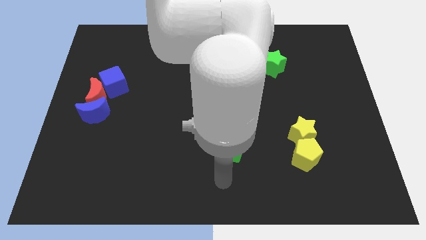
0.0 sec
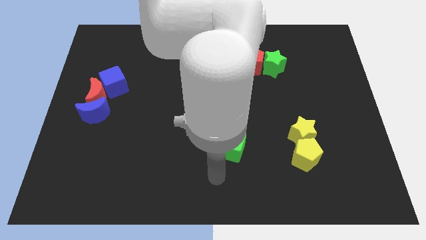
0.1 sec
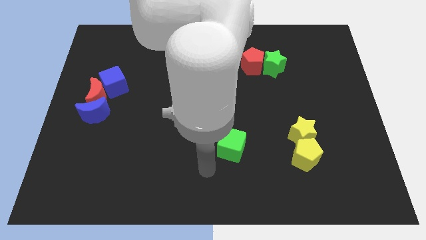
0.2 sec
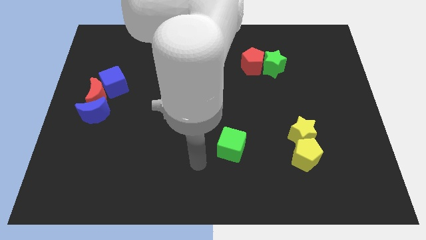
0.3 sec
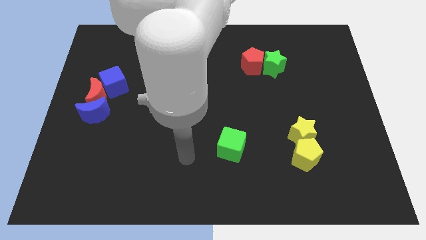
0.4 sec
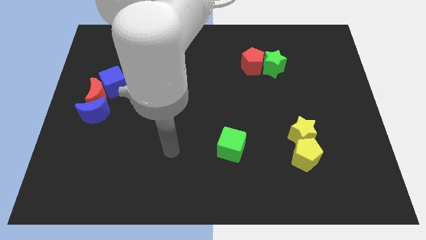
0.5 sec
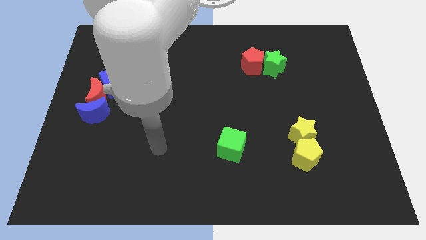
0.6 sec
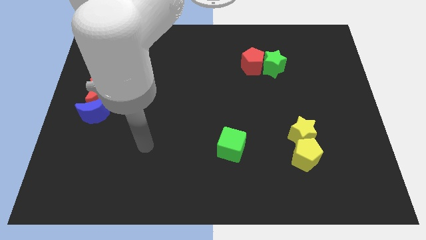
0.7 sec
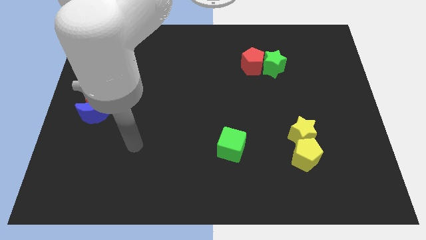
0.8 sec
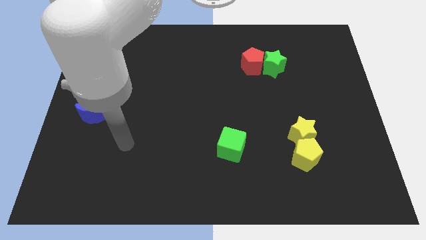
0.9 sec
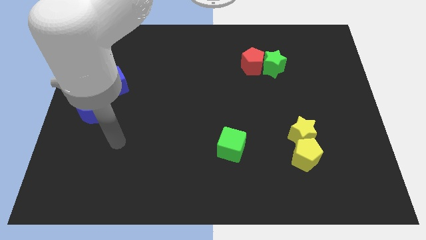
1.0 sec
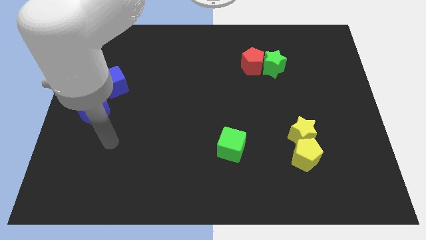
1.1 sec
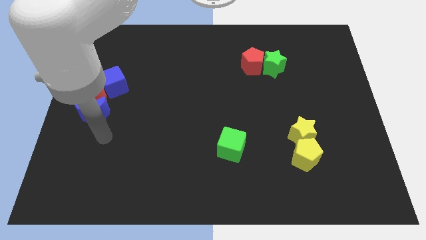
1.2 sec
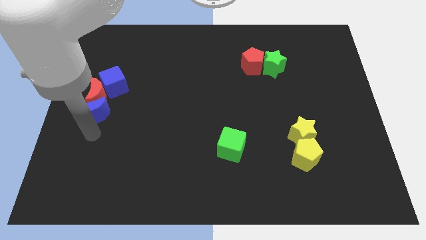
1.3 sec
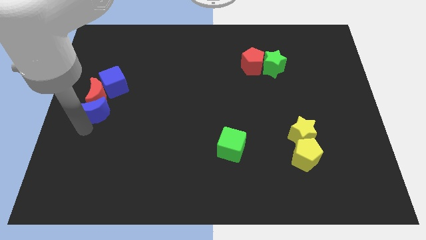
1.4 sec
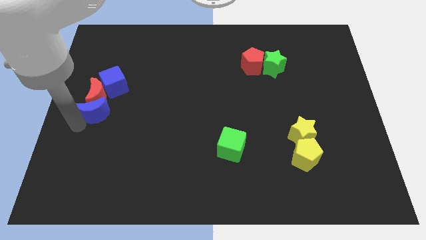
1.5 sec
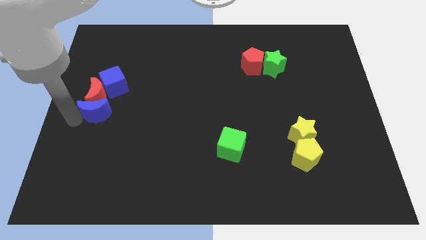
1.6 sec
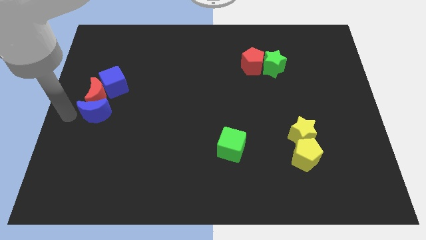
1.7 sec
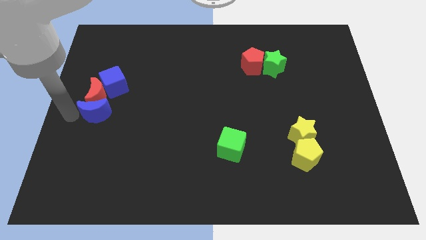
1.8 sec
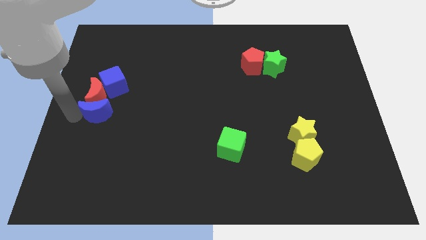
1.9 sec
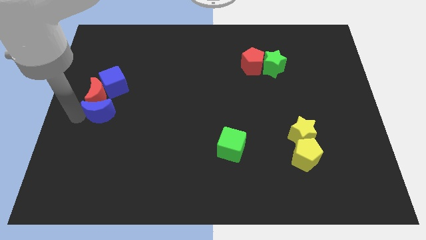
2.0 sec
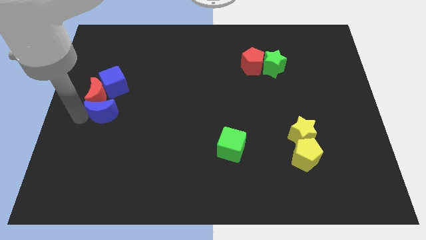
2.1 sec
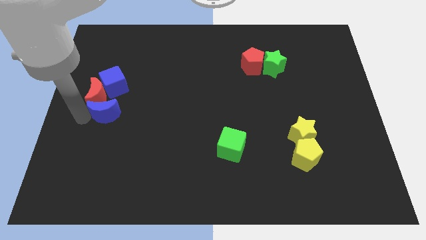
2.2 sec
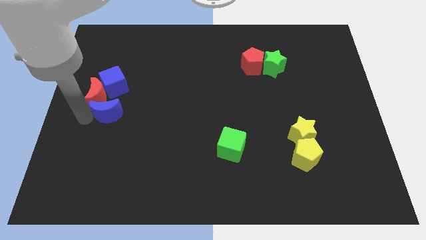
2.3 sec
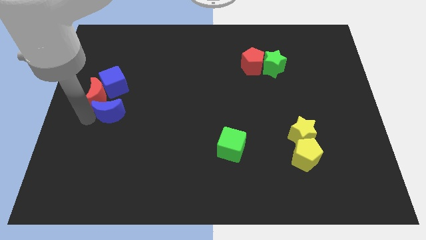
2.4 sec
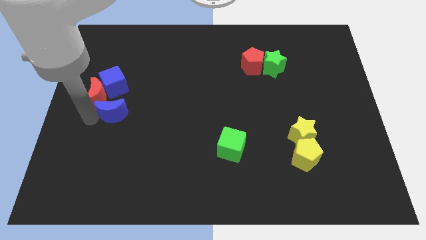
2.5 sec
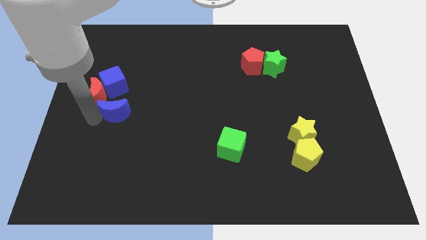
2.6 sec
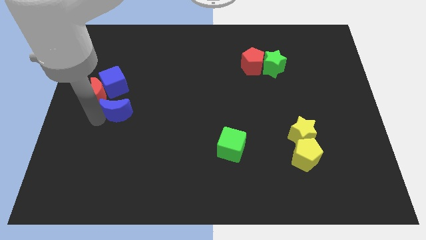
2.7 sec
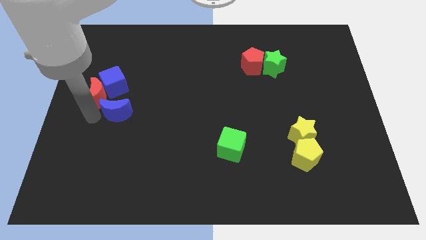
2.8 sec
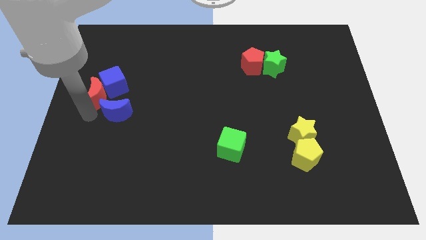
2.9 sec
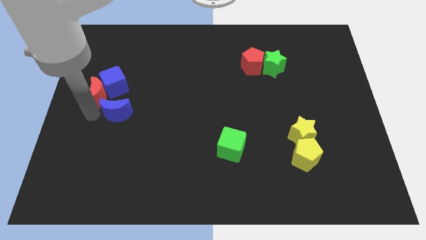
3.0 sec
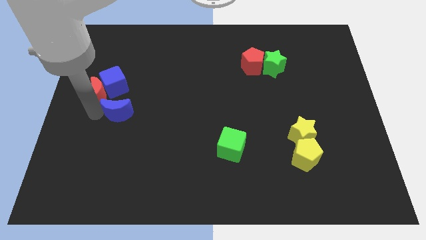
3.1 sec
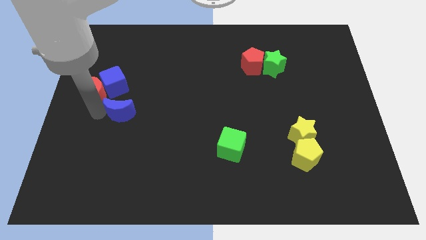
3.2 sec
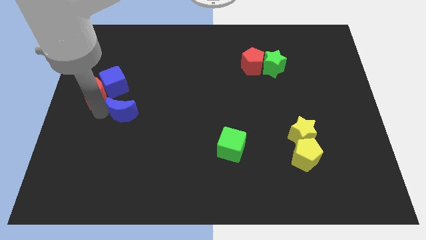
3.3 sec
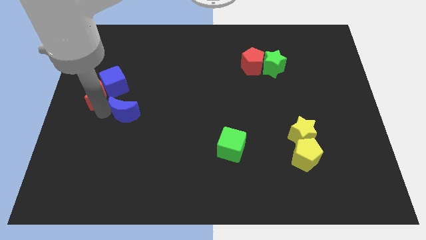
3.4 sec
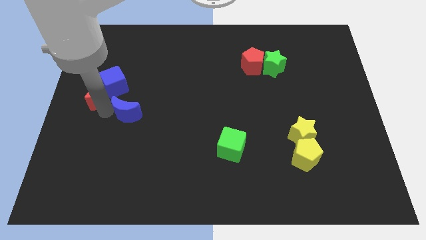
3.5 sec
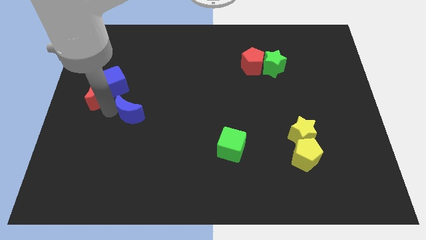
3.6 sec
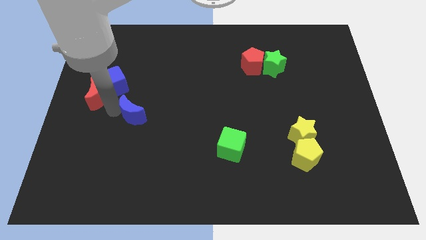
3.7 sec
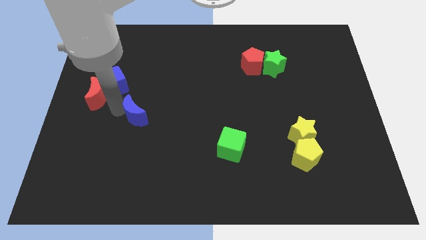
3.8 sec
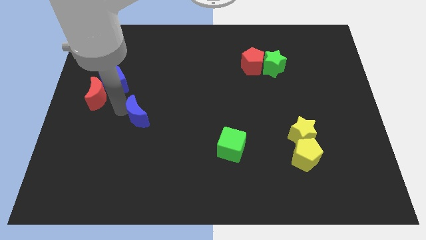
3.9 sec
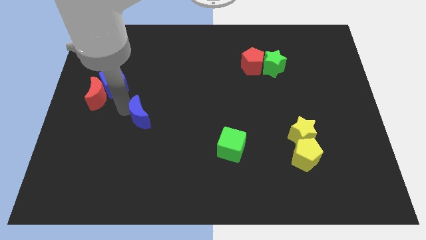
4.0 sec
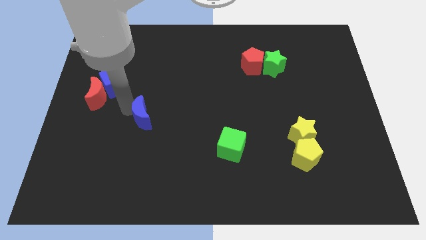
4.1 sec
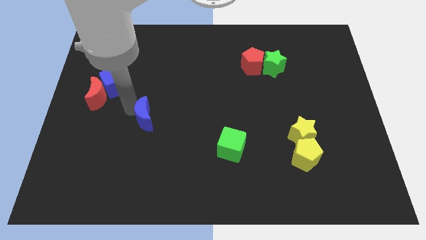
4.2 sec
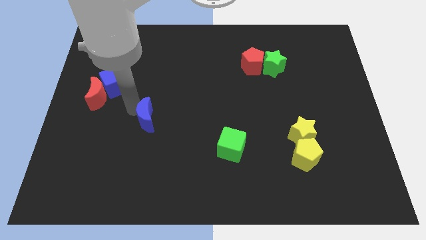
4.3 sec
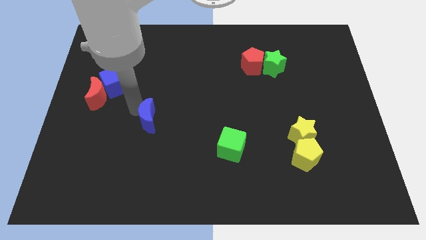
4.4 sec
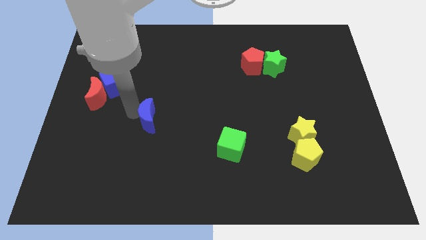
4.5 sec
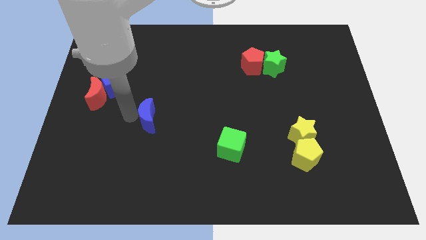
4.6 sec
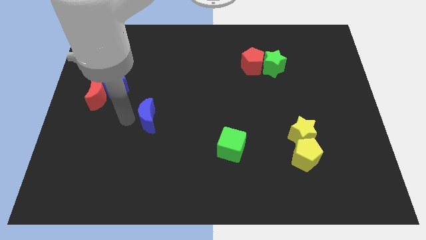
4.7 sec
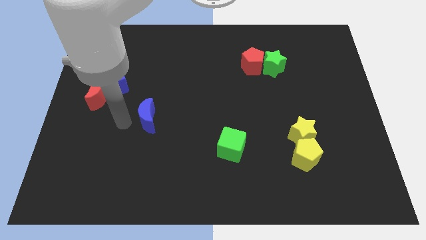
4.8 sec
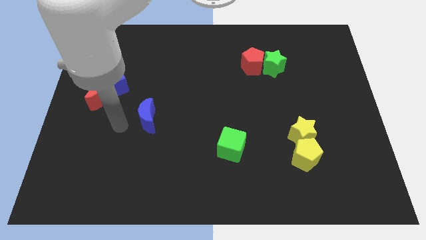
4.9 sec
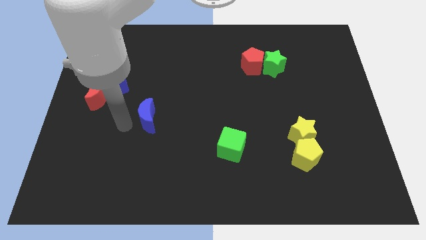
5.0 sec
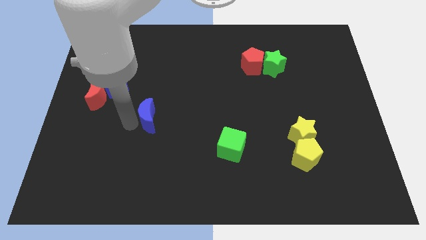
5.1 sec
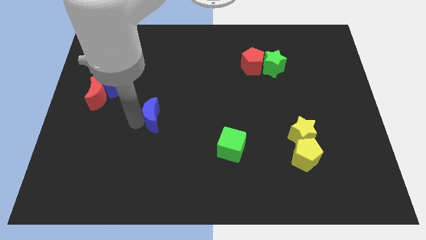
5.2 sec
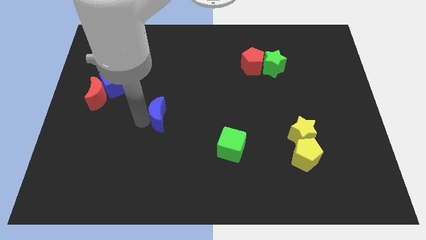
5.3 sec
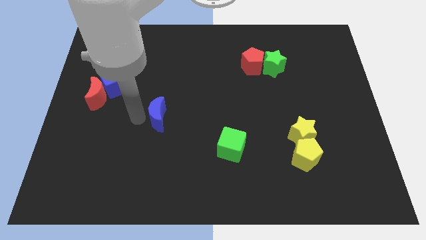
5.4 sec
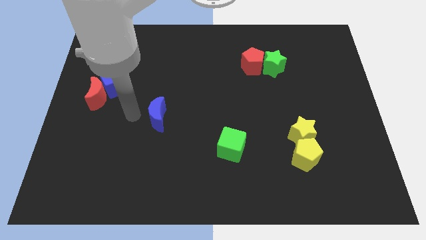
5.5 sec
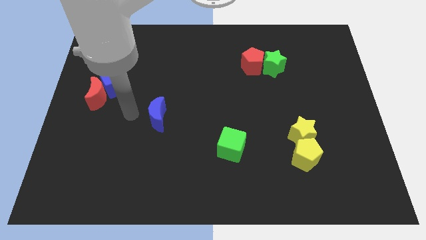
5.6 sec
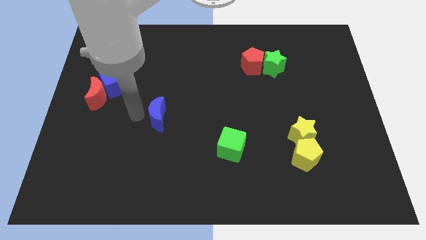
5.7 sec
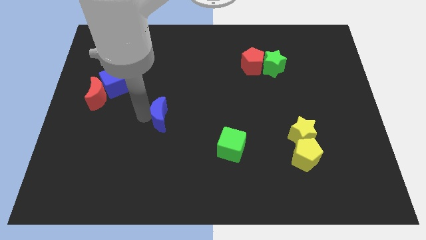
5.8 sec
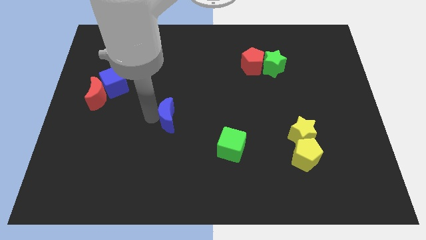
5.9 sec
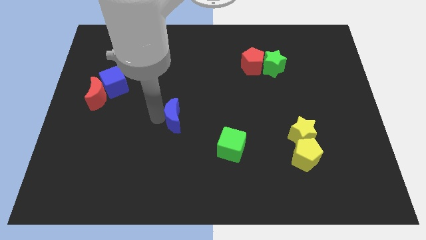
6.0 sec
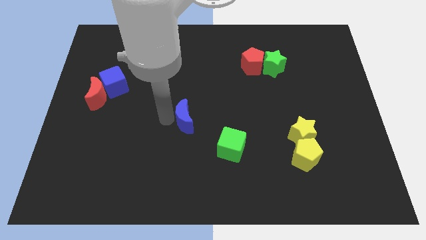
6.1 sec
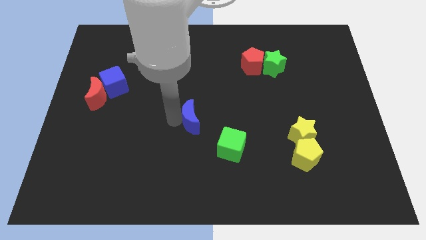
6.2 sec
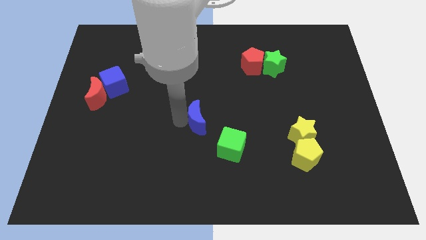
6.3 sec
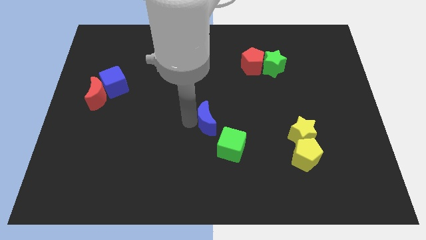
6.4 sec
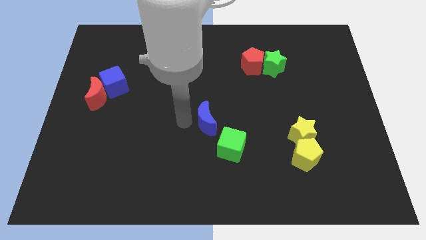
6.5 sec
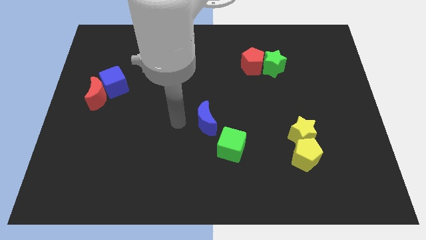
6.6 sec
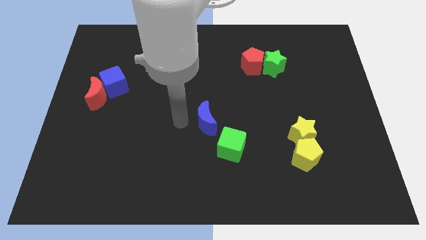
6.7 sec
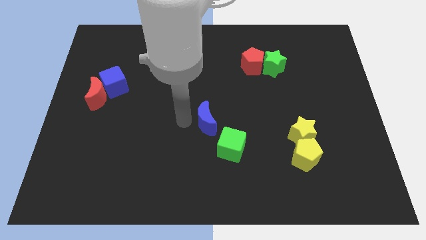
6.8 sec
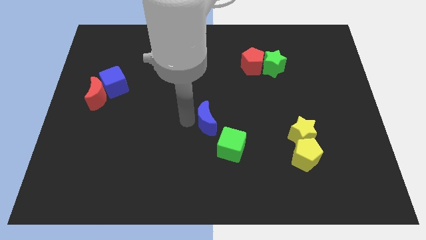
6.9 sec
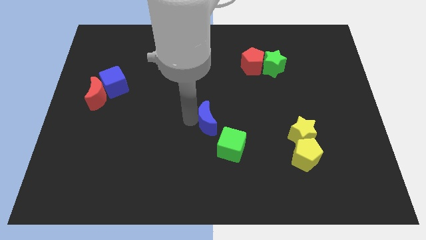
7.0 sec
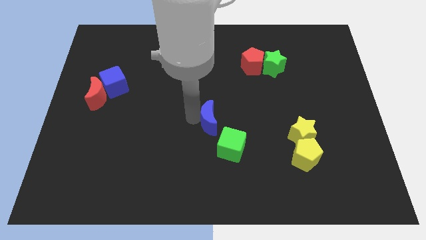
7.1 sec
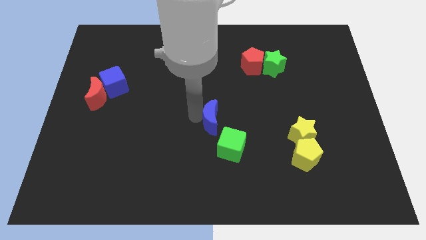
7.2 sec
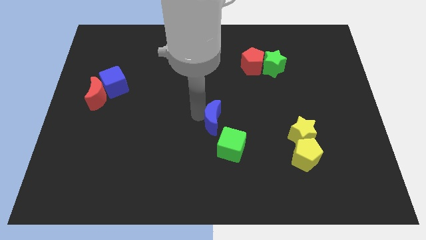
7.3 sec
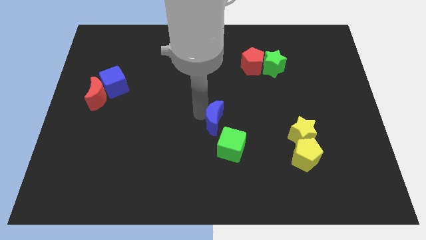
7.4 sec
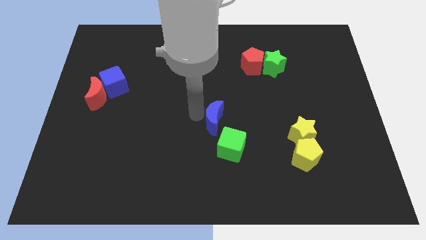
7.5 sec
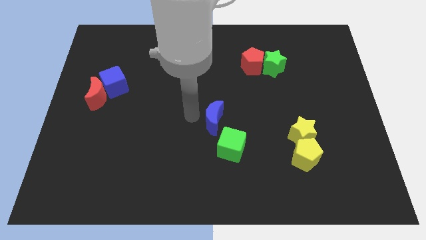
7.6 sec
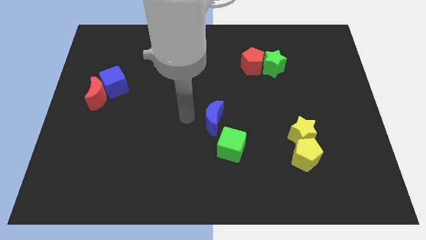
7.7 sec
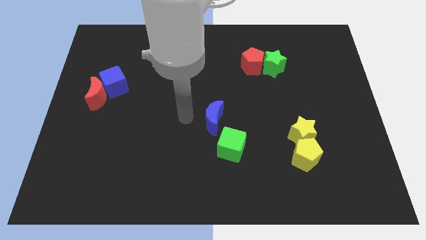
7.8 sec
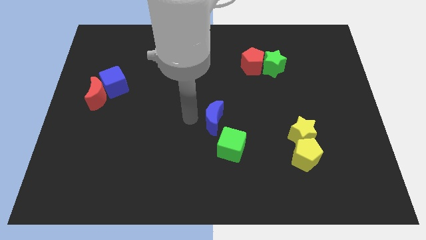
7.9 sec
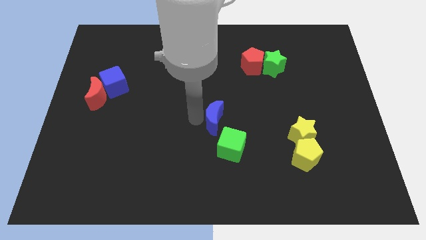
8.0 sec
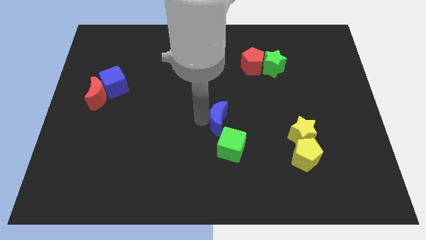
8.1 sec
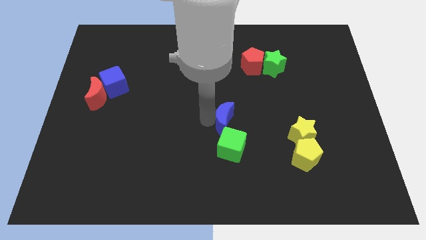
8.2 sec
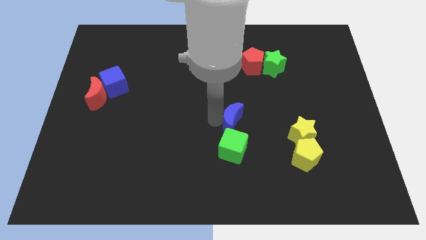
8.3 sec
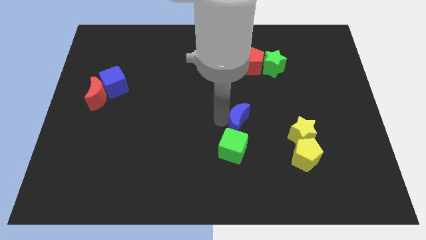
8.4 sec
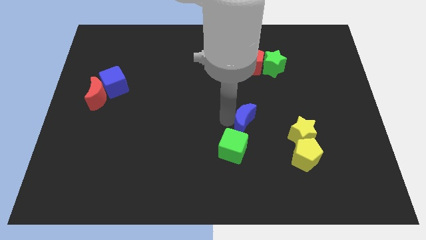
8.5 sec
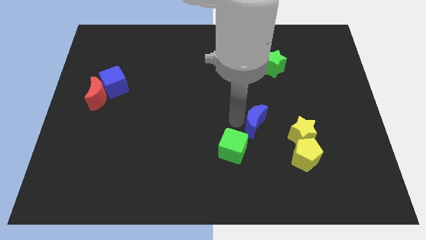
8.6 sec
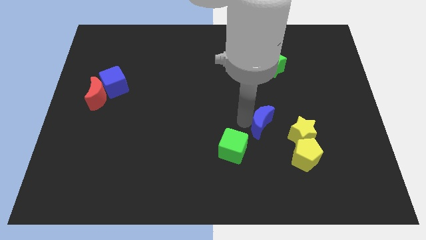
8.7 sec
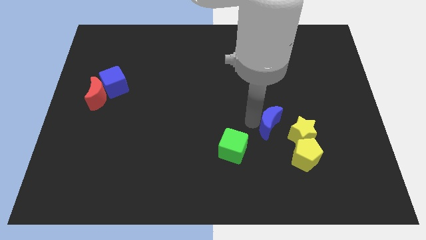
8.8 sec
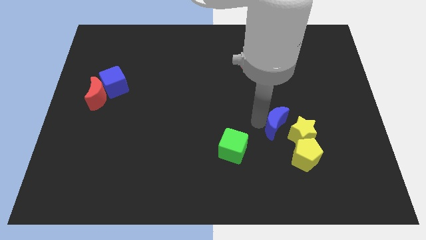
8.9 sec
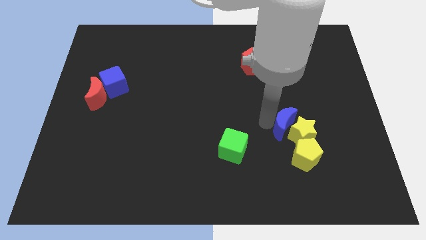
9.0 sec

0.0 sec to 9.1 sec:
move the blue moon next to the yellow star
